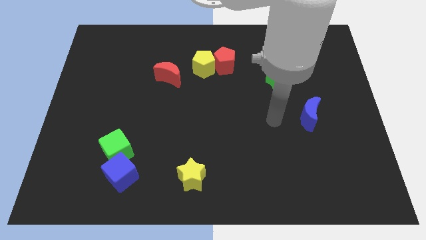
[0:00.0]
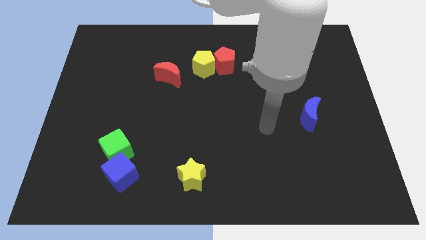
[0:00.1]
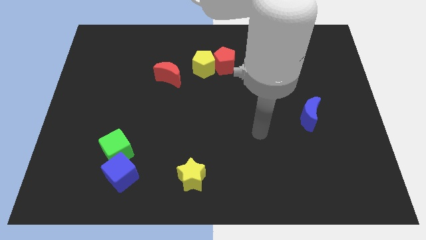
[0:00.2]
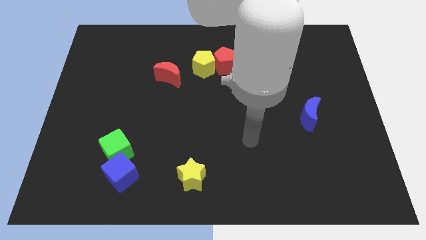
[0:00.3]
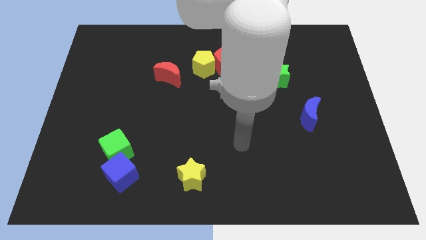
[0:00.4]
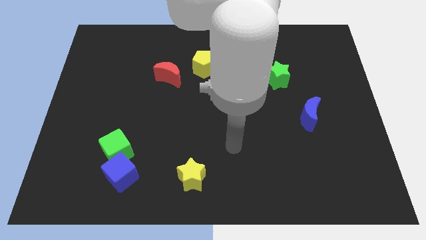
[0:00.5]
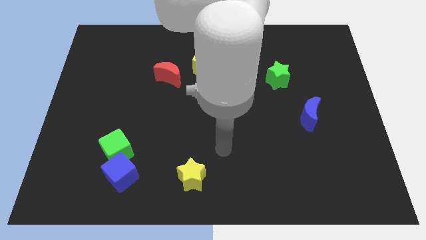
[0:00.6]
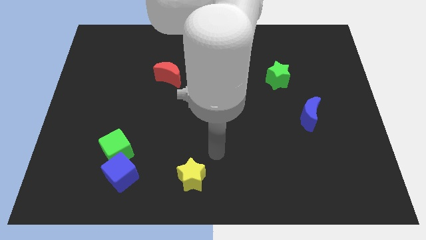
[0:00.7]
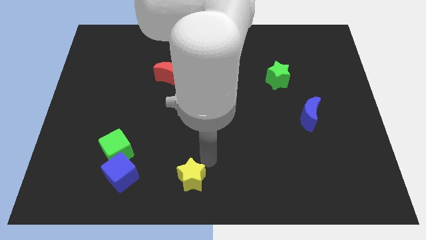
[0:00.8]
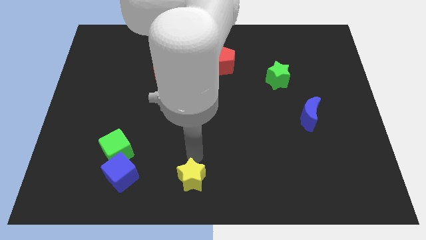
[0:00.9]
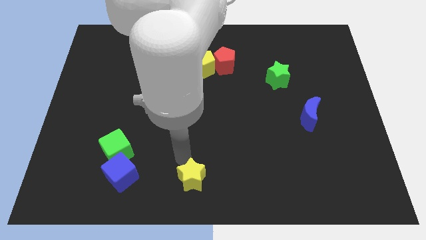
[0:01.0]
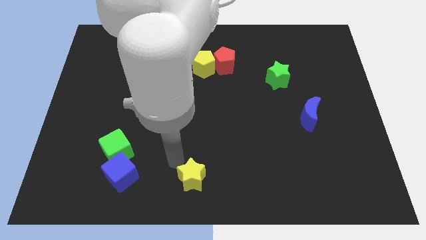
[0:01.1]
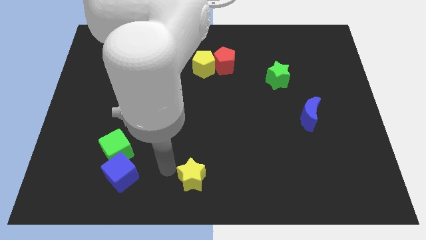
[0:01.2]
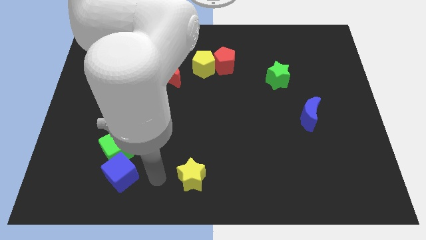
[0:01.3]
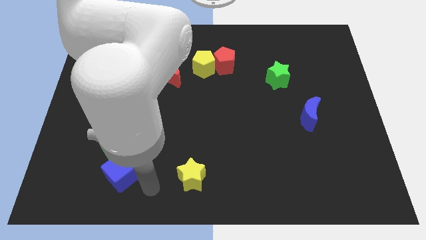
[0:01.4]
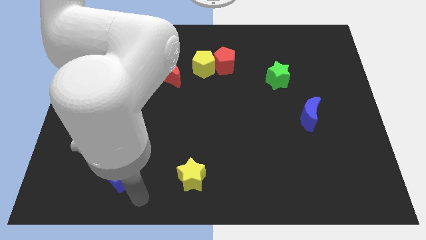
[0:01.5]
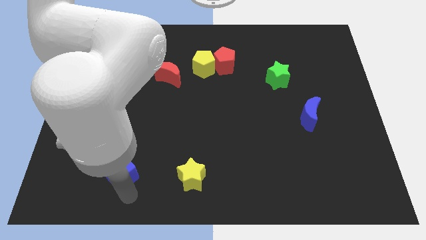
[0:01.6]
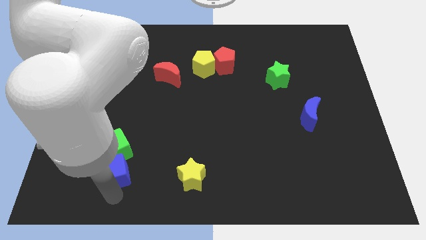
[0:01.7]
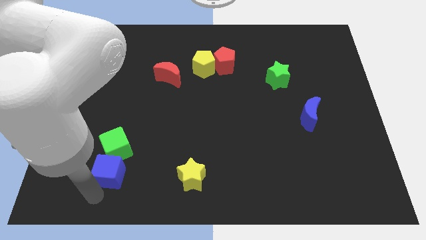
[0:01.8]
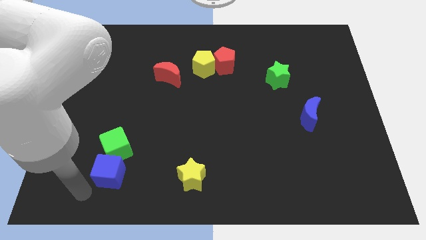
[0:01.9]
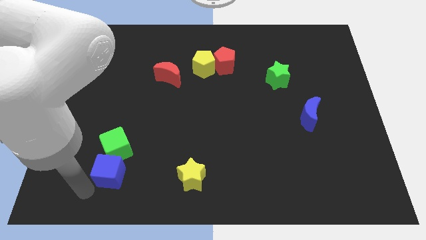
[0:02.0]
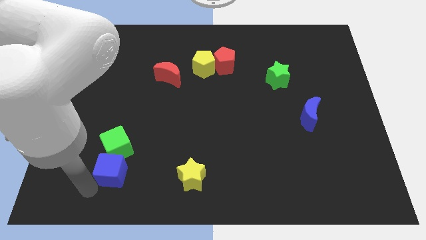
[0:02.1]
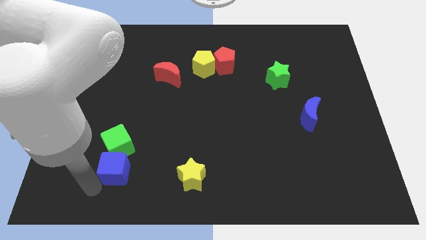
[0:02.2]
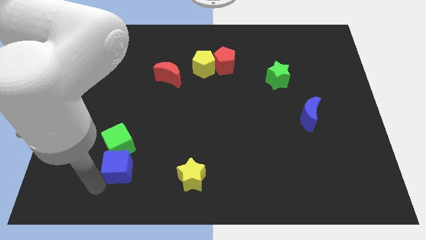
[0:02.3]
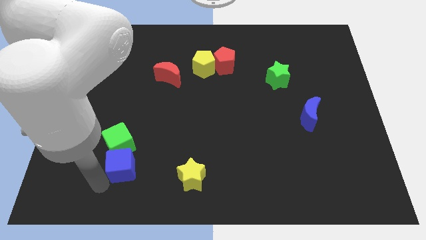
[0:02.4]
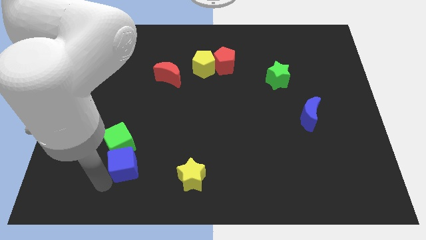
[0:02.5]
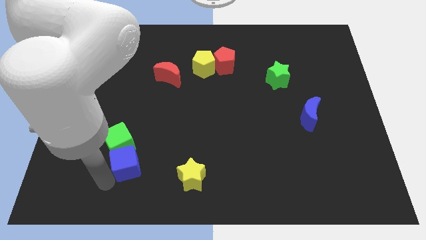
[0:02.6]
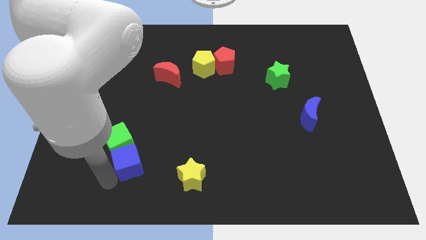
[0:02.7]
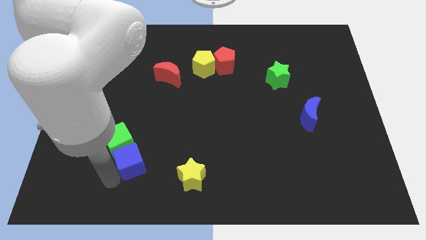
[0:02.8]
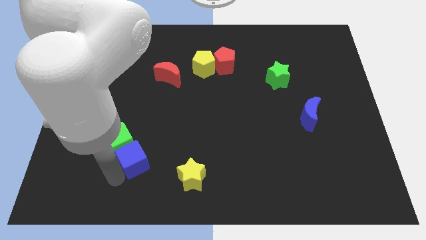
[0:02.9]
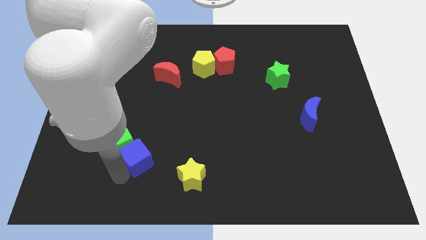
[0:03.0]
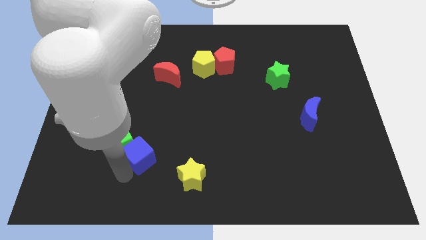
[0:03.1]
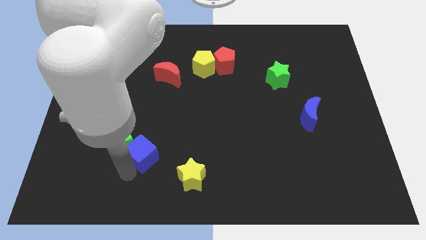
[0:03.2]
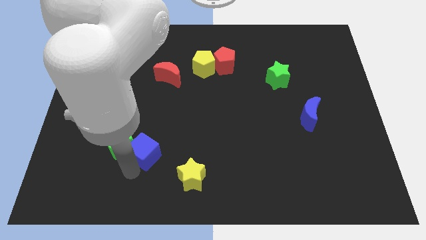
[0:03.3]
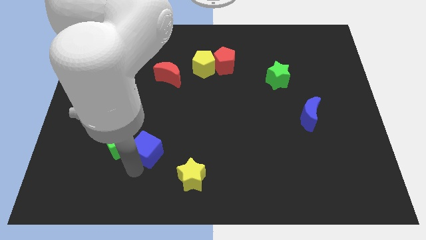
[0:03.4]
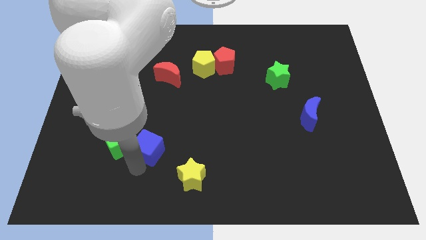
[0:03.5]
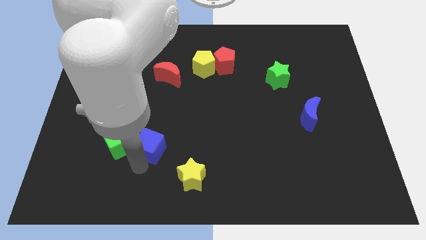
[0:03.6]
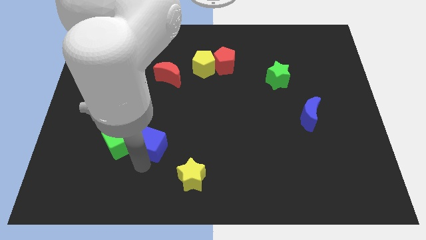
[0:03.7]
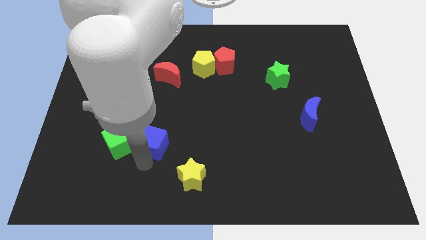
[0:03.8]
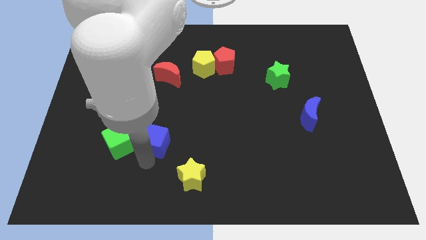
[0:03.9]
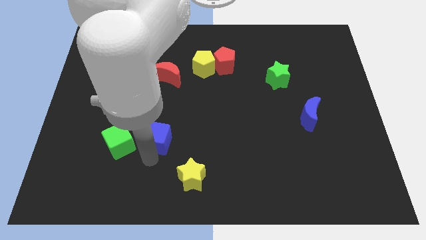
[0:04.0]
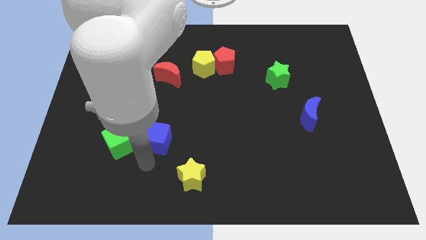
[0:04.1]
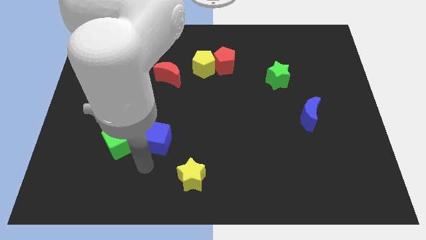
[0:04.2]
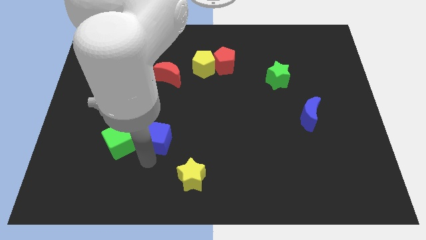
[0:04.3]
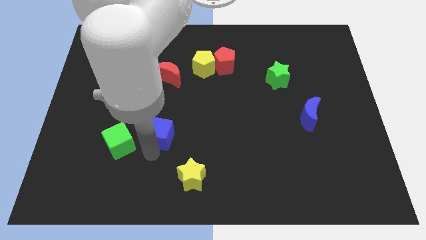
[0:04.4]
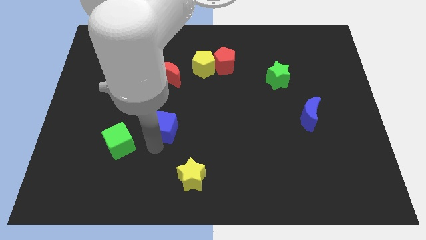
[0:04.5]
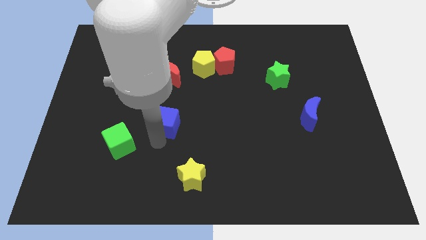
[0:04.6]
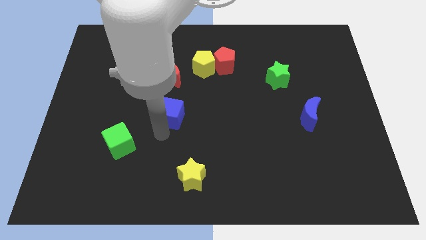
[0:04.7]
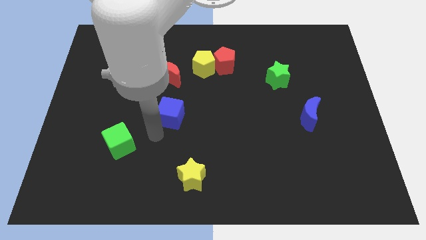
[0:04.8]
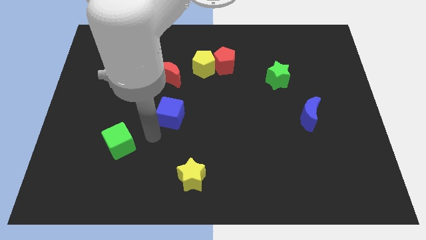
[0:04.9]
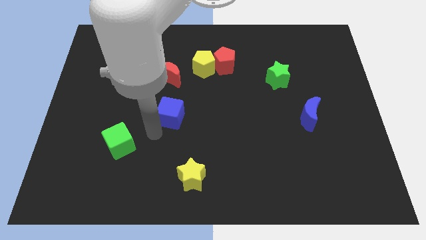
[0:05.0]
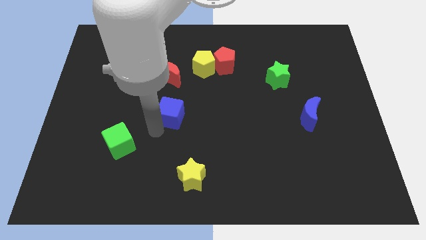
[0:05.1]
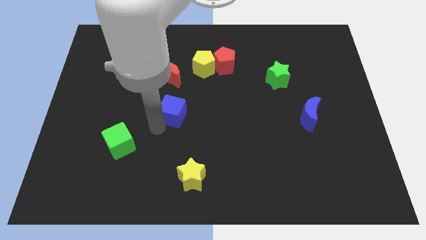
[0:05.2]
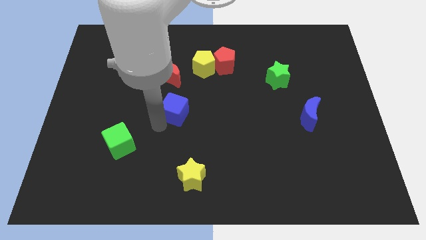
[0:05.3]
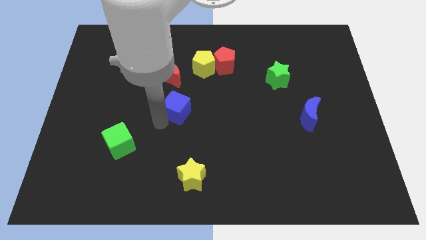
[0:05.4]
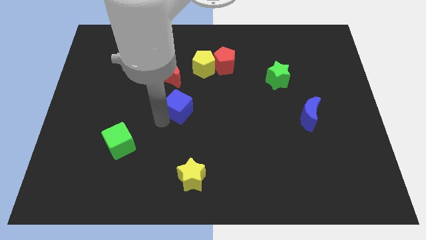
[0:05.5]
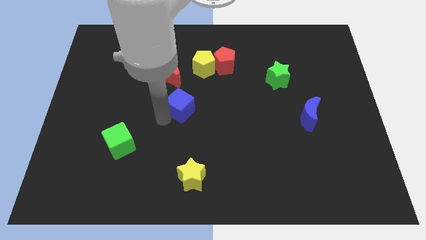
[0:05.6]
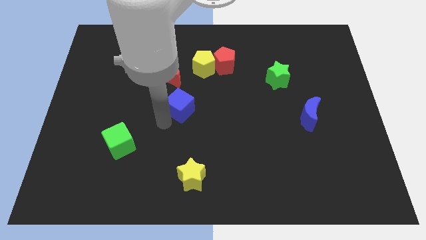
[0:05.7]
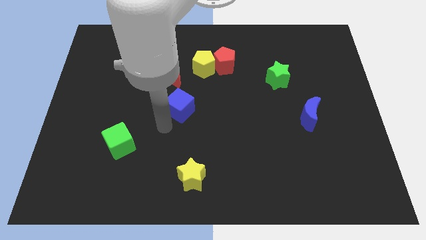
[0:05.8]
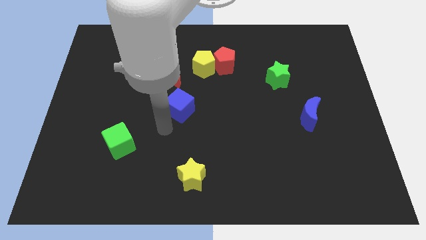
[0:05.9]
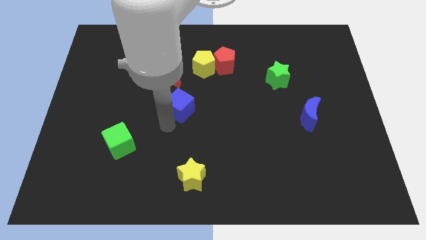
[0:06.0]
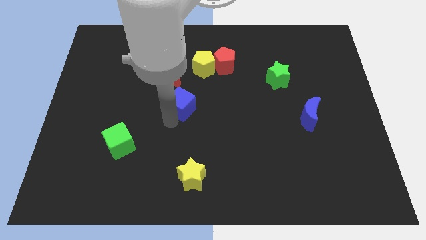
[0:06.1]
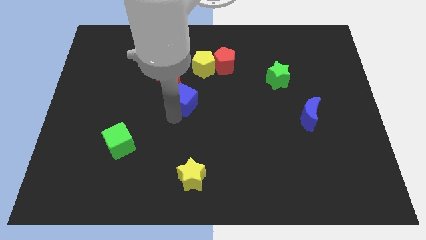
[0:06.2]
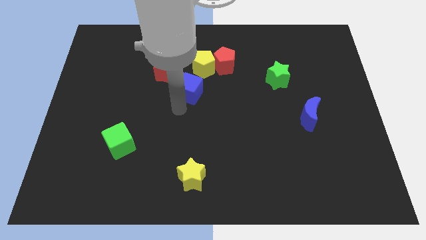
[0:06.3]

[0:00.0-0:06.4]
put the blue cube just right of the red moon

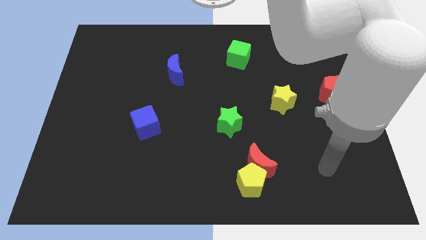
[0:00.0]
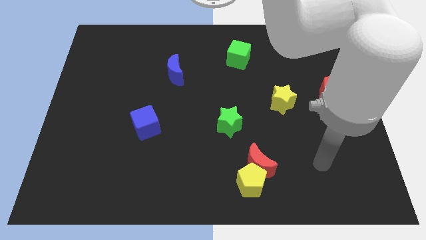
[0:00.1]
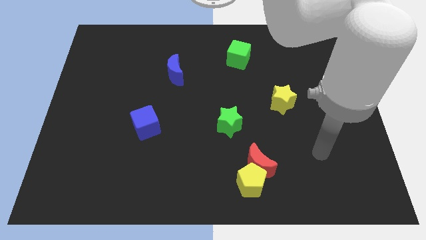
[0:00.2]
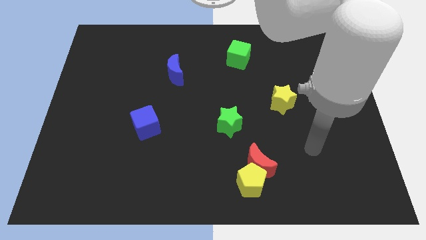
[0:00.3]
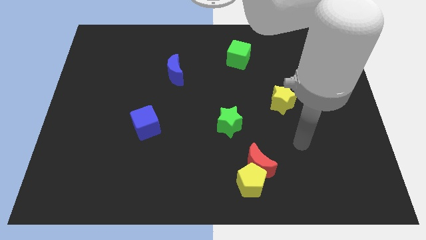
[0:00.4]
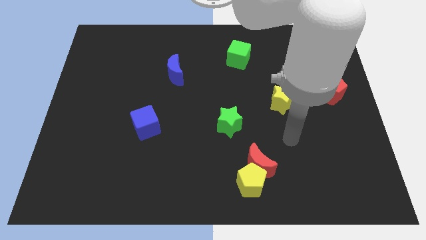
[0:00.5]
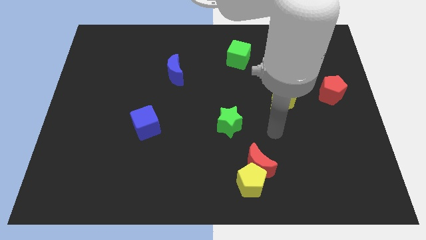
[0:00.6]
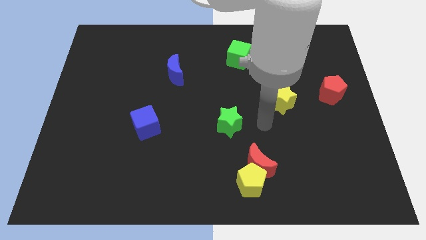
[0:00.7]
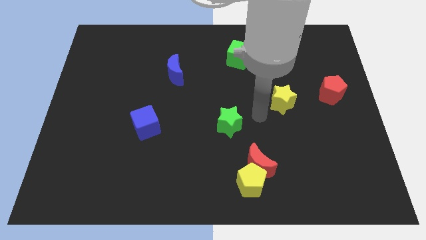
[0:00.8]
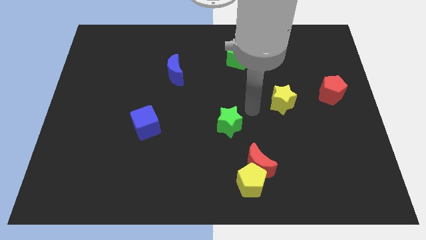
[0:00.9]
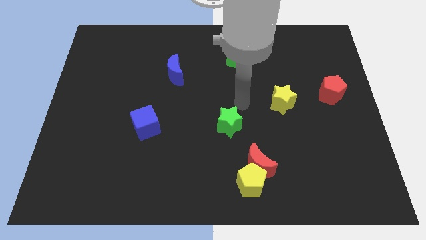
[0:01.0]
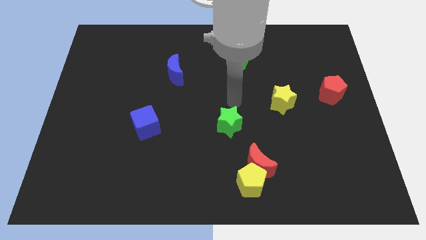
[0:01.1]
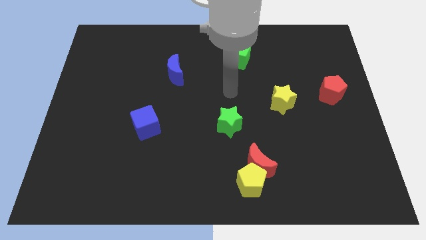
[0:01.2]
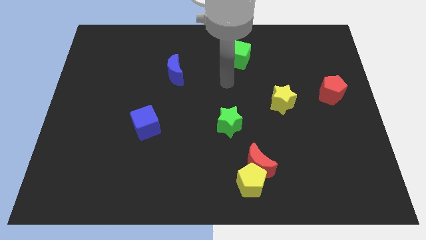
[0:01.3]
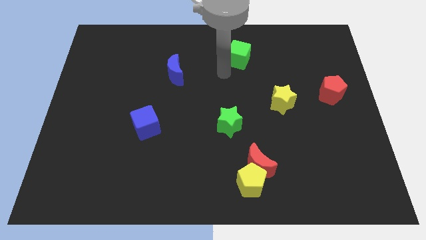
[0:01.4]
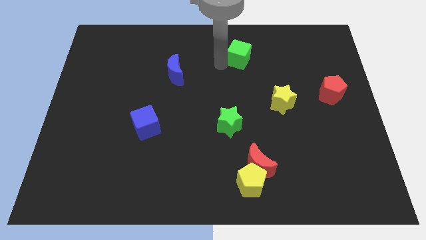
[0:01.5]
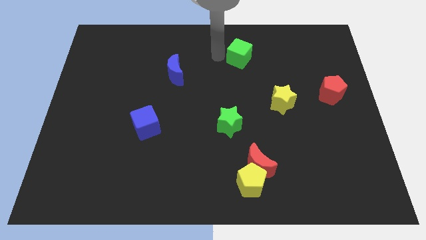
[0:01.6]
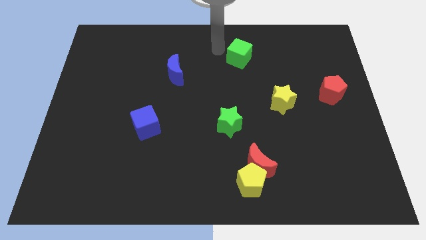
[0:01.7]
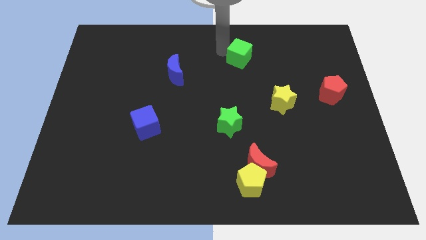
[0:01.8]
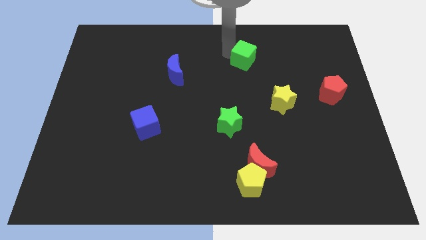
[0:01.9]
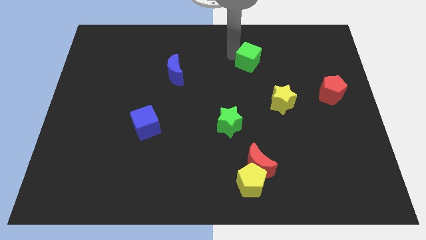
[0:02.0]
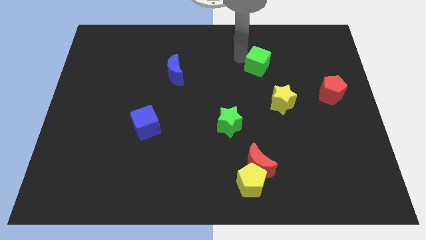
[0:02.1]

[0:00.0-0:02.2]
move the green cube to the top side of the yellow star
